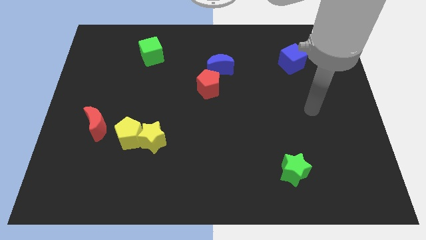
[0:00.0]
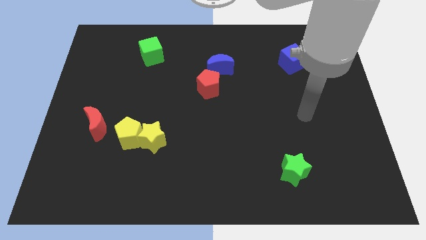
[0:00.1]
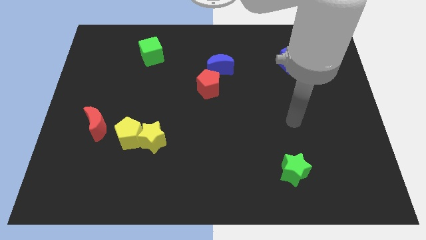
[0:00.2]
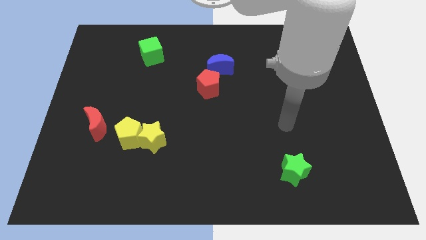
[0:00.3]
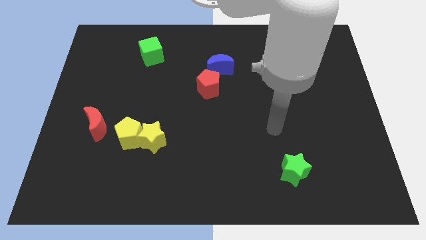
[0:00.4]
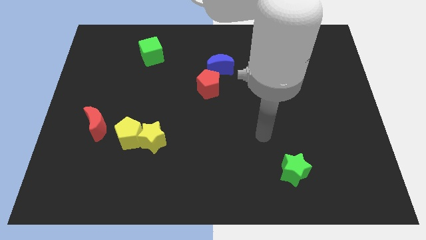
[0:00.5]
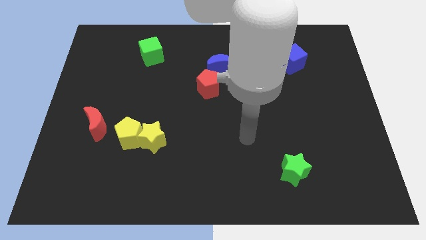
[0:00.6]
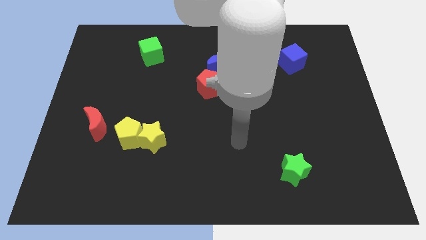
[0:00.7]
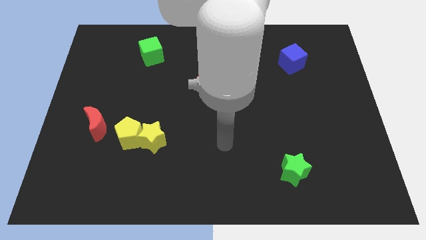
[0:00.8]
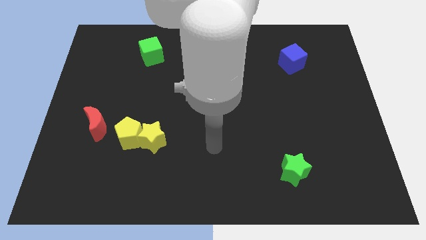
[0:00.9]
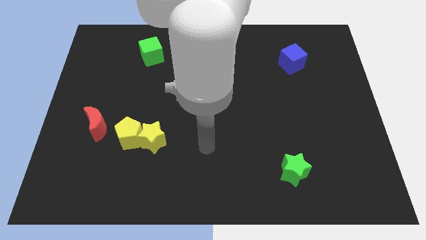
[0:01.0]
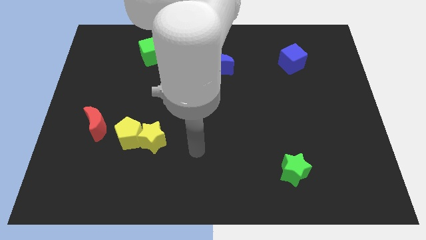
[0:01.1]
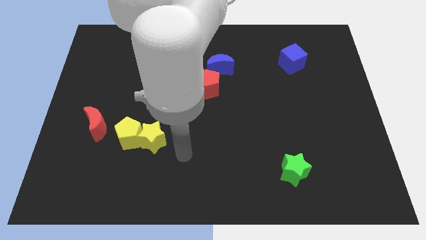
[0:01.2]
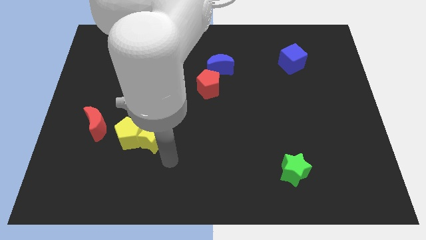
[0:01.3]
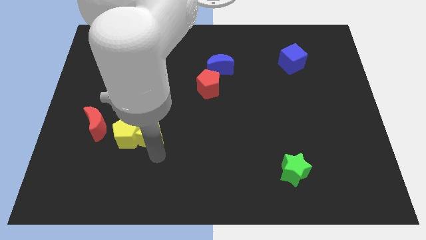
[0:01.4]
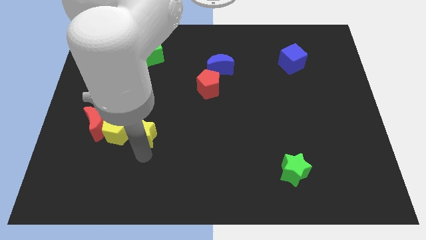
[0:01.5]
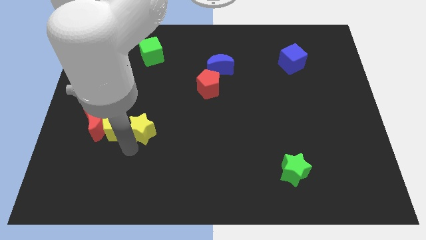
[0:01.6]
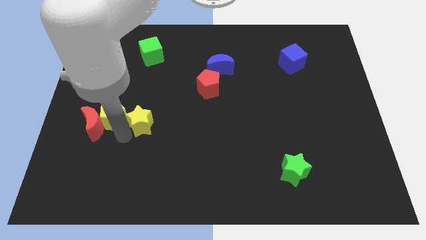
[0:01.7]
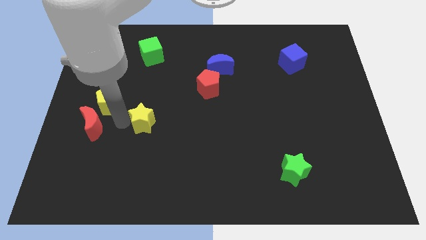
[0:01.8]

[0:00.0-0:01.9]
pull the yellow star apart from the yellow pentagon

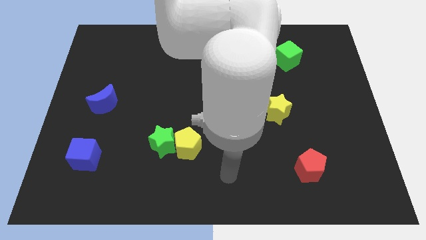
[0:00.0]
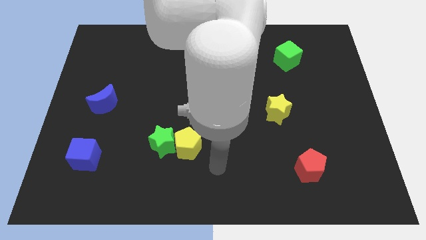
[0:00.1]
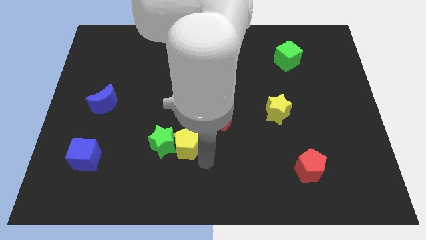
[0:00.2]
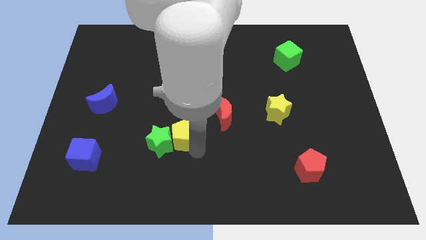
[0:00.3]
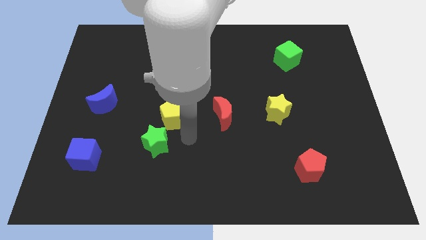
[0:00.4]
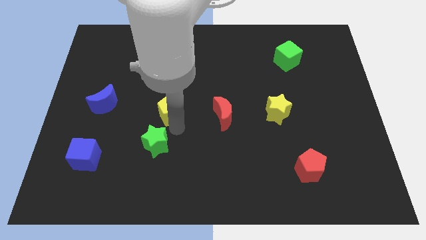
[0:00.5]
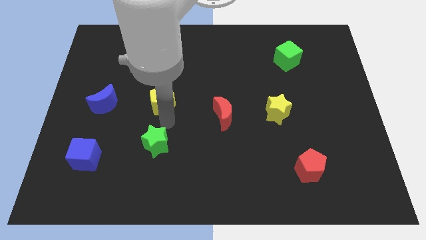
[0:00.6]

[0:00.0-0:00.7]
pull the green star apart from the yellow pentagon

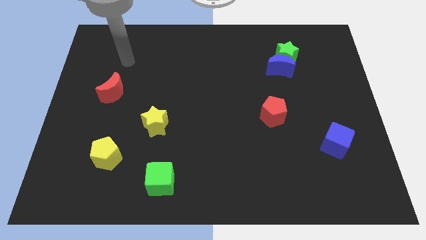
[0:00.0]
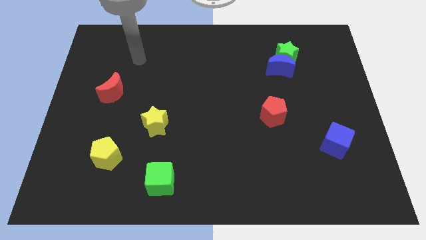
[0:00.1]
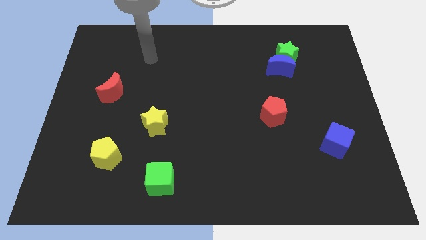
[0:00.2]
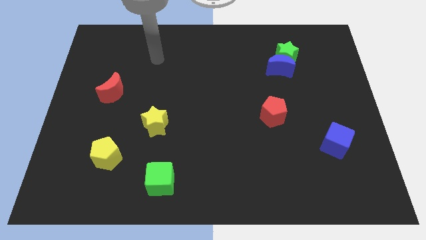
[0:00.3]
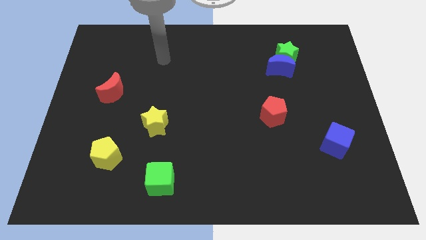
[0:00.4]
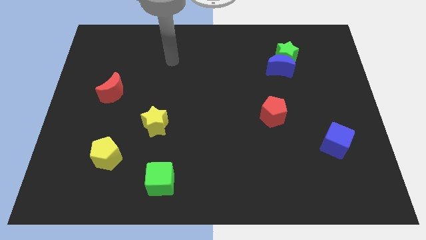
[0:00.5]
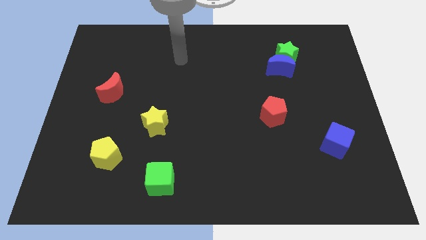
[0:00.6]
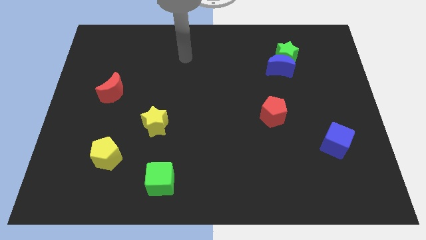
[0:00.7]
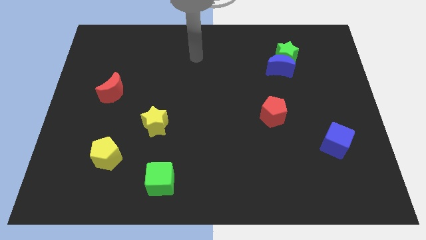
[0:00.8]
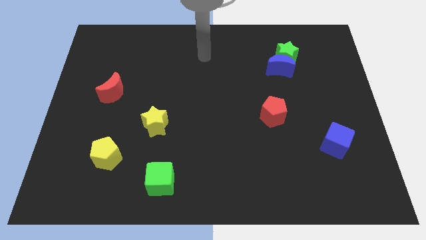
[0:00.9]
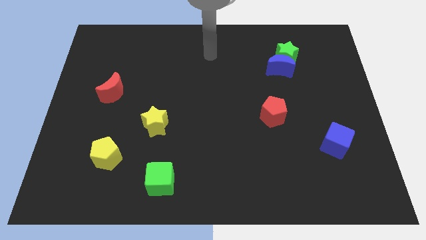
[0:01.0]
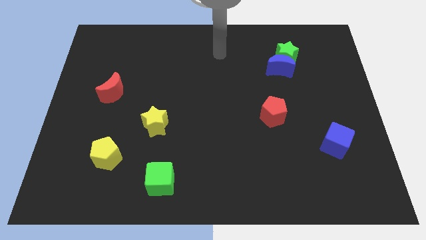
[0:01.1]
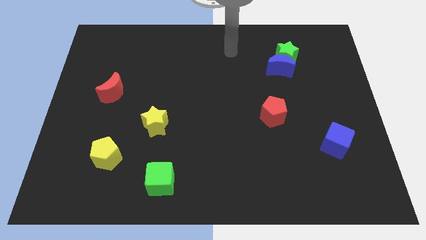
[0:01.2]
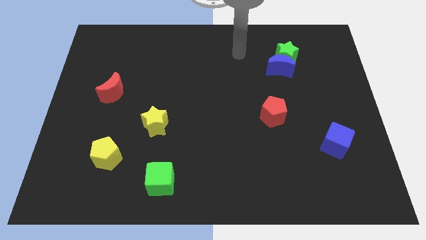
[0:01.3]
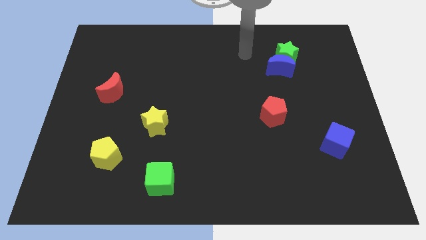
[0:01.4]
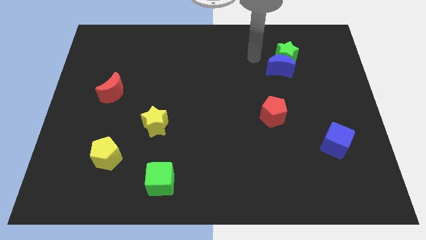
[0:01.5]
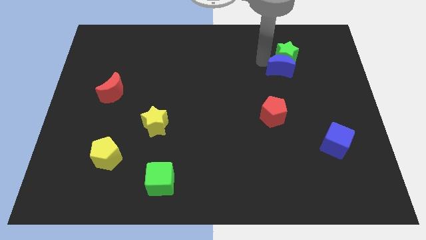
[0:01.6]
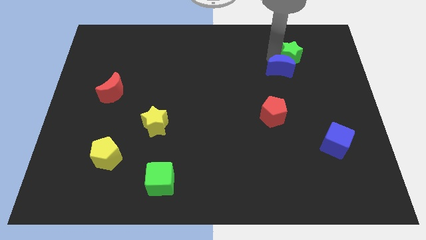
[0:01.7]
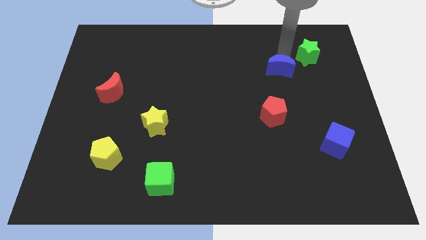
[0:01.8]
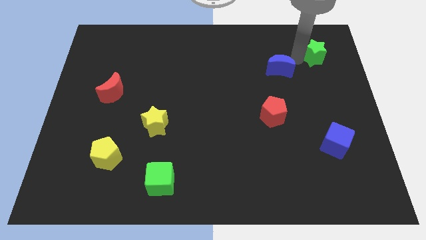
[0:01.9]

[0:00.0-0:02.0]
pull the blue moon apart from the green star

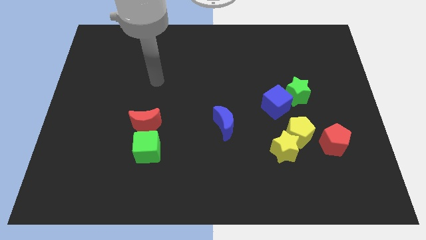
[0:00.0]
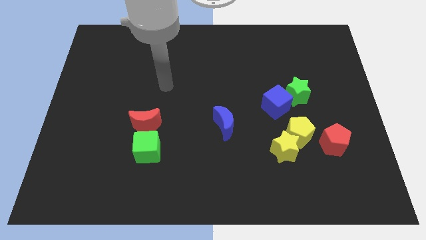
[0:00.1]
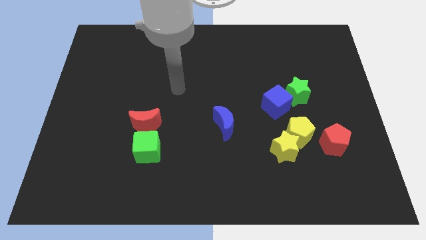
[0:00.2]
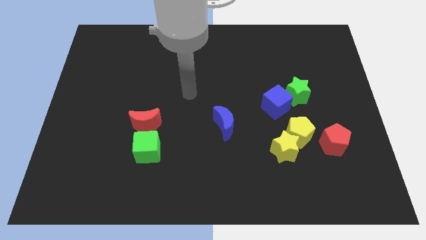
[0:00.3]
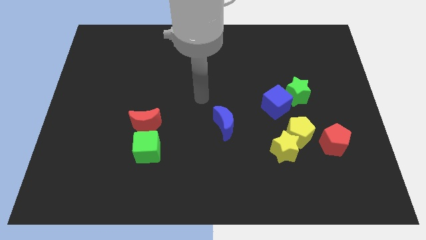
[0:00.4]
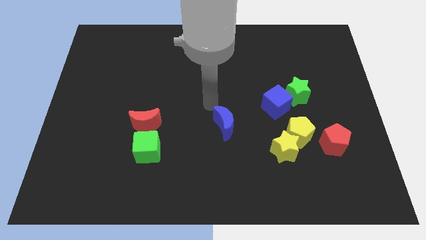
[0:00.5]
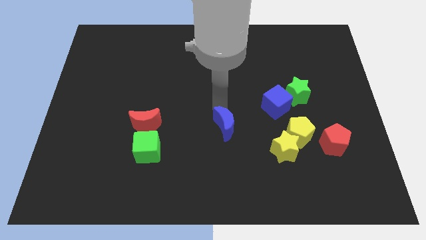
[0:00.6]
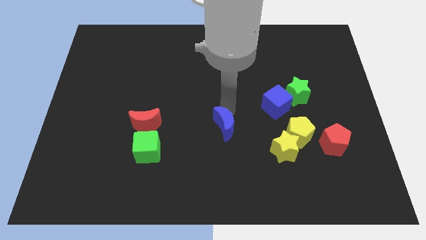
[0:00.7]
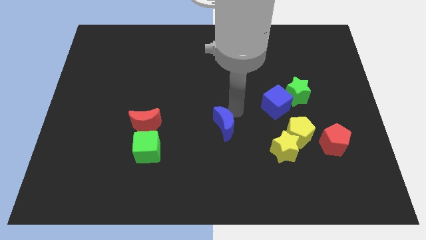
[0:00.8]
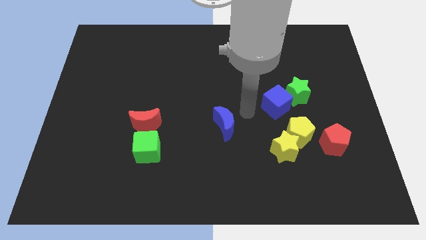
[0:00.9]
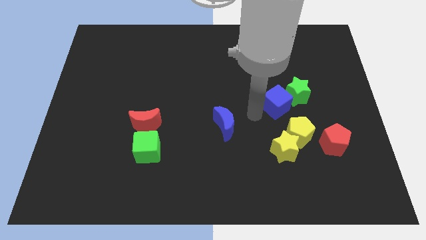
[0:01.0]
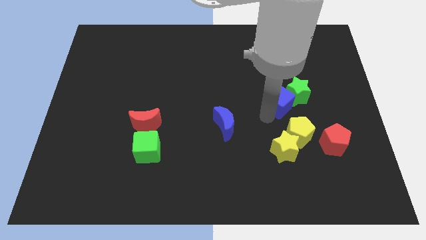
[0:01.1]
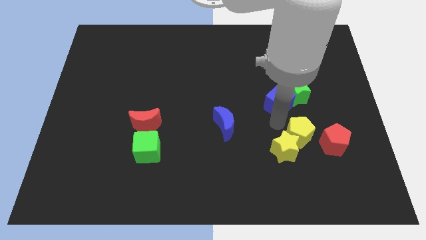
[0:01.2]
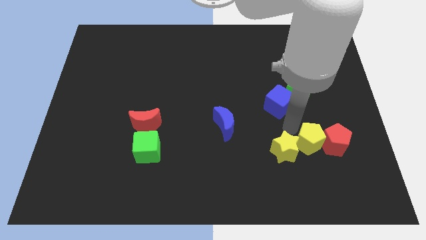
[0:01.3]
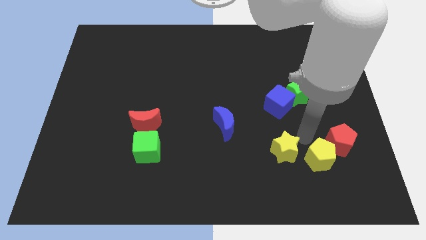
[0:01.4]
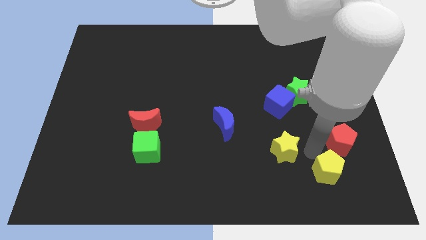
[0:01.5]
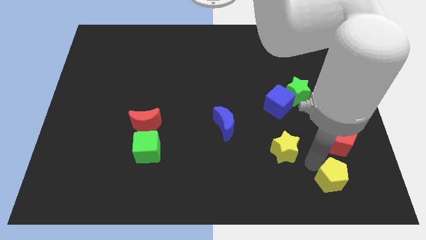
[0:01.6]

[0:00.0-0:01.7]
move the yellow star away from the yellow pentagon

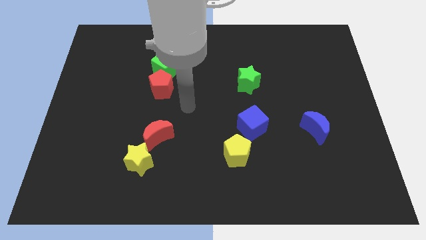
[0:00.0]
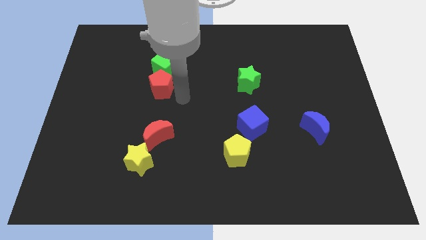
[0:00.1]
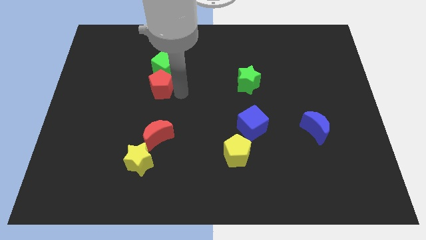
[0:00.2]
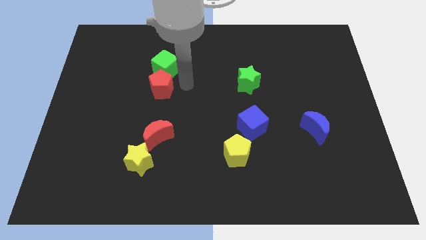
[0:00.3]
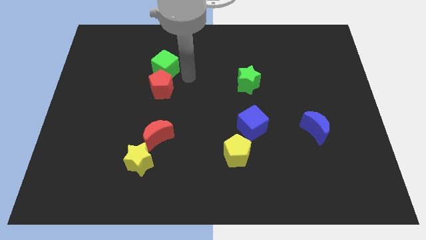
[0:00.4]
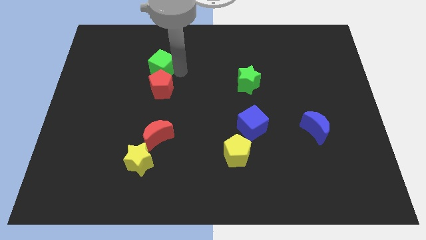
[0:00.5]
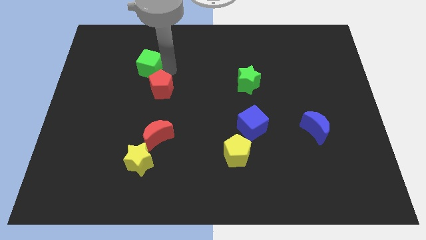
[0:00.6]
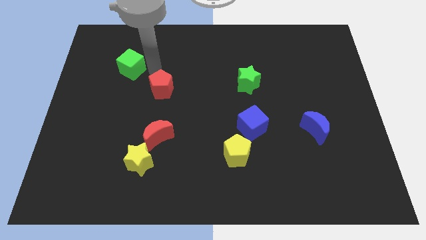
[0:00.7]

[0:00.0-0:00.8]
move the red pentagon away from the green cube

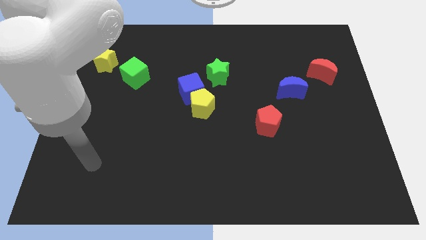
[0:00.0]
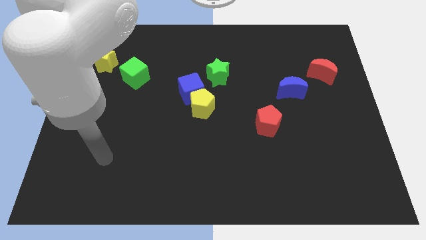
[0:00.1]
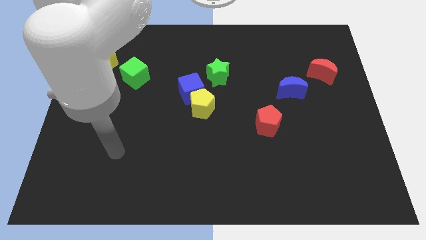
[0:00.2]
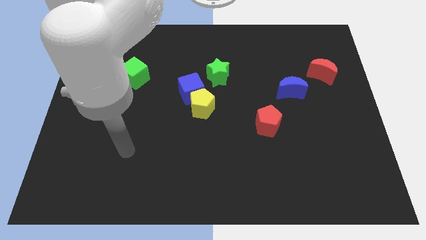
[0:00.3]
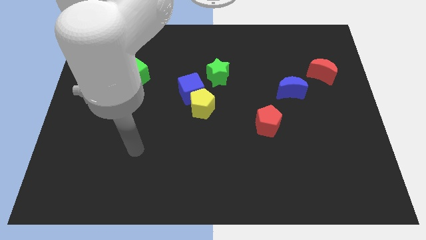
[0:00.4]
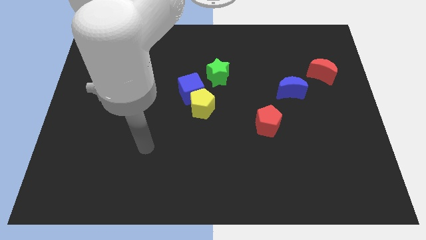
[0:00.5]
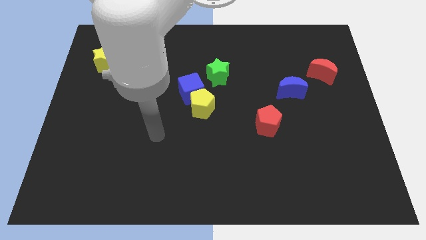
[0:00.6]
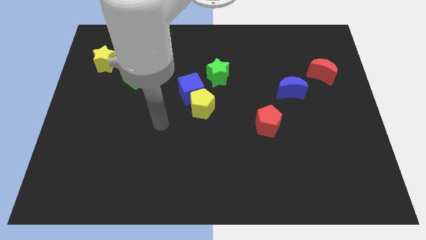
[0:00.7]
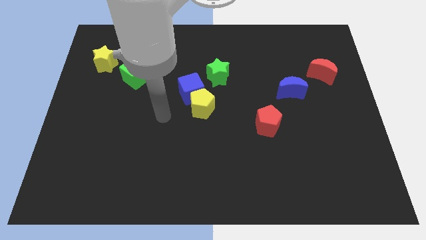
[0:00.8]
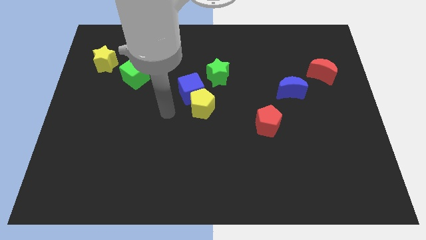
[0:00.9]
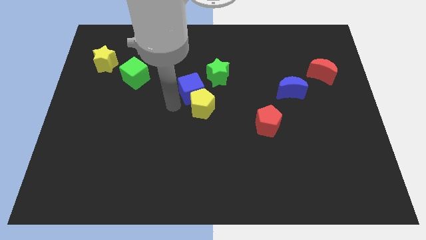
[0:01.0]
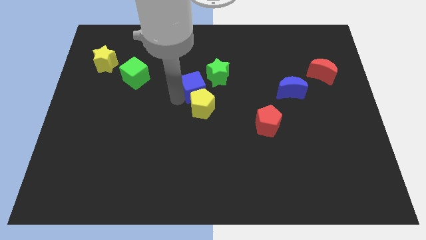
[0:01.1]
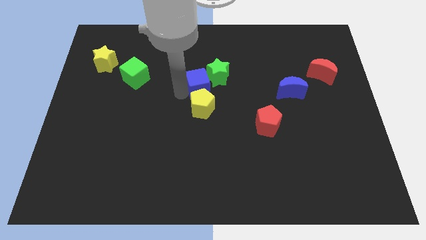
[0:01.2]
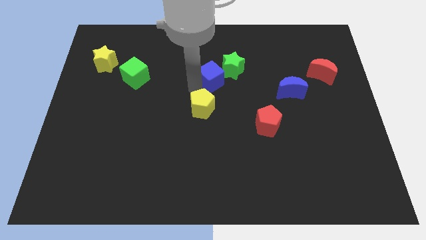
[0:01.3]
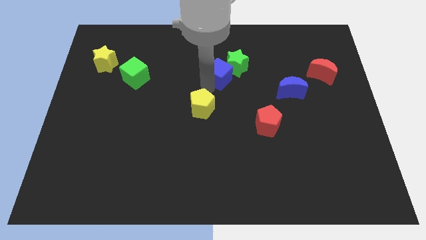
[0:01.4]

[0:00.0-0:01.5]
pull the yellow pentagon apart from the blue cube

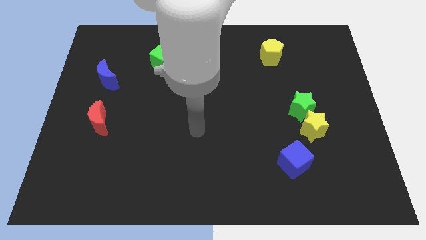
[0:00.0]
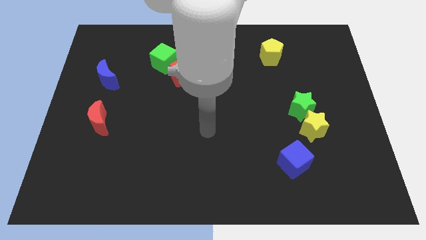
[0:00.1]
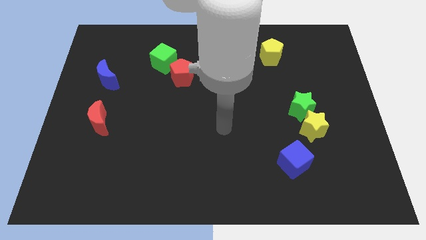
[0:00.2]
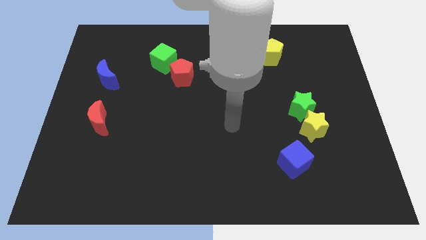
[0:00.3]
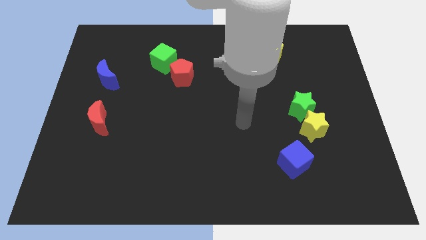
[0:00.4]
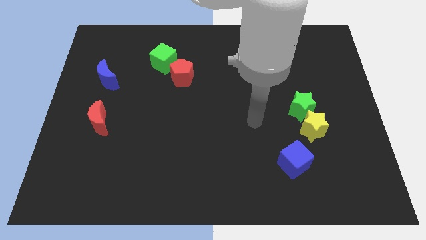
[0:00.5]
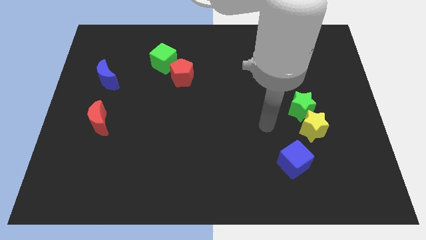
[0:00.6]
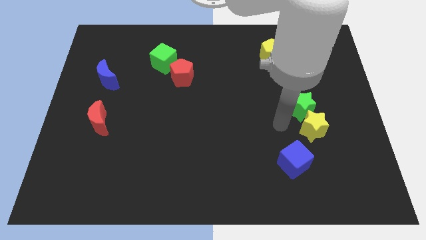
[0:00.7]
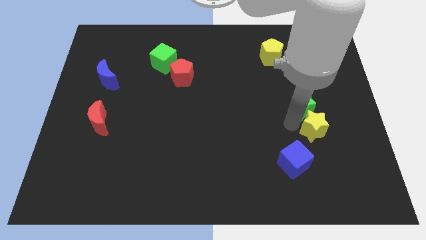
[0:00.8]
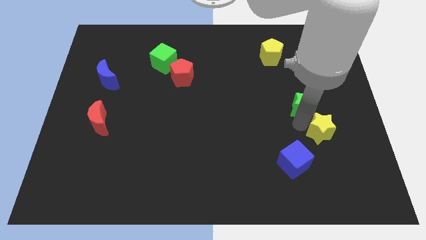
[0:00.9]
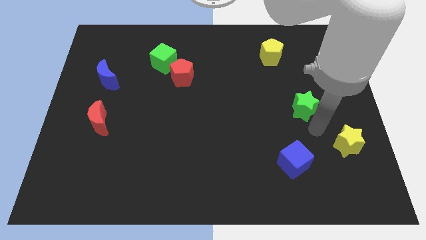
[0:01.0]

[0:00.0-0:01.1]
separate the green star from the yellow star
